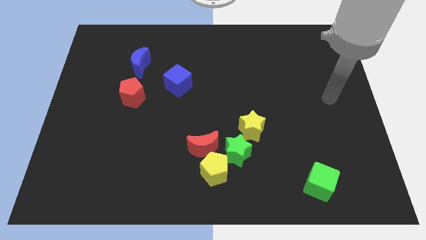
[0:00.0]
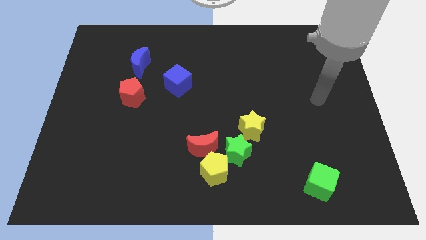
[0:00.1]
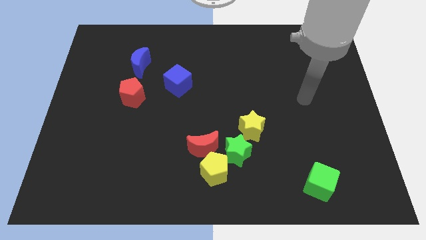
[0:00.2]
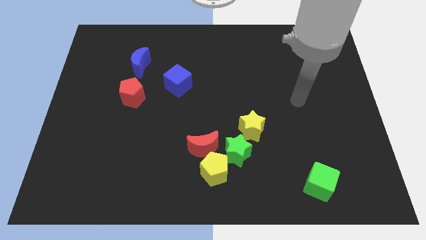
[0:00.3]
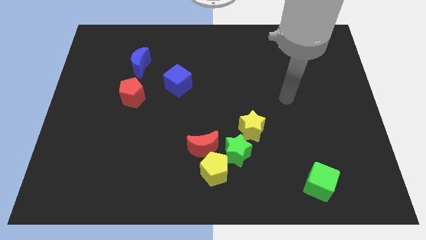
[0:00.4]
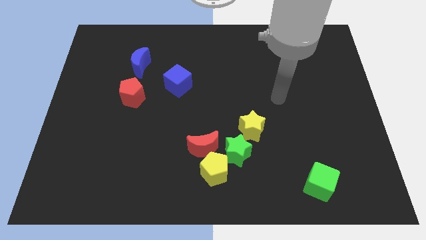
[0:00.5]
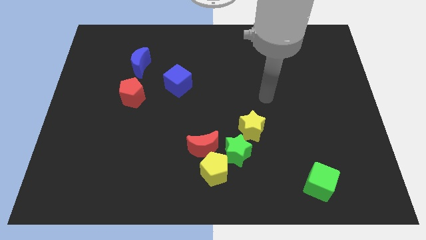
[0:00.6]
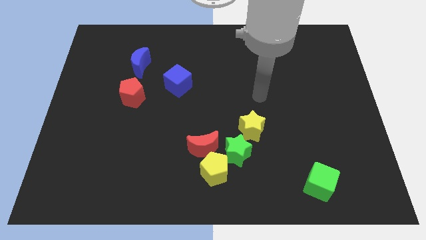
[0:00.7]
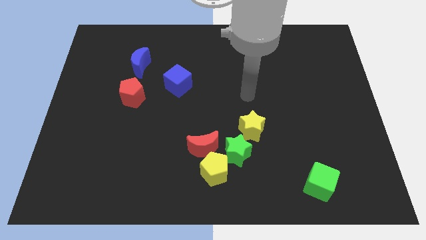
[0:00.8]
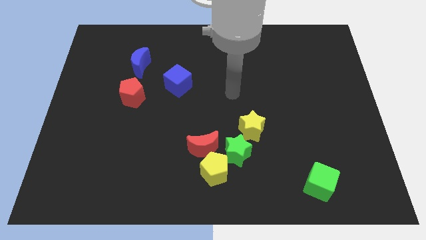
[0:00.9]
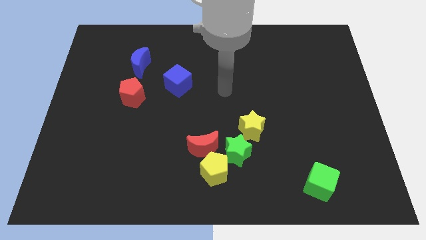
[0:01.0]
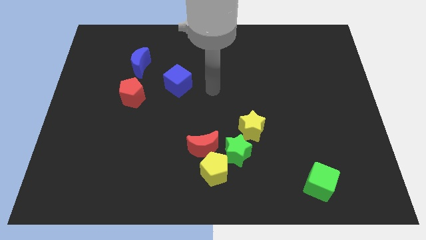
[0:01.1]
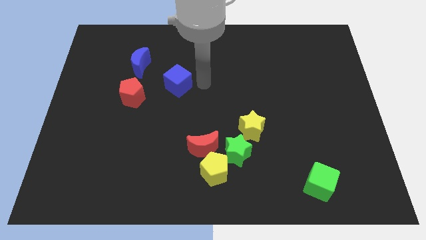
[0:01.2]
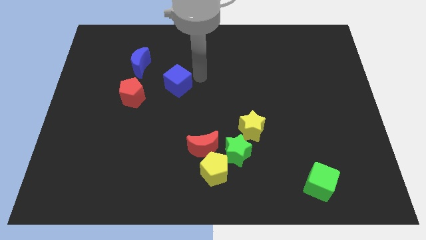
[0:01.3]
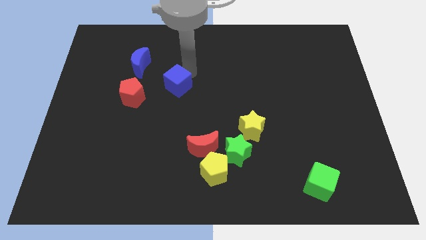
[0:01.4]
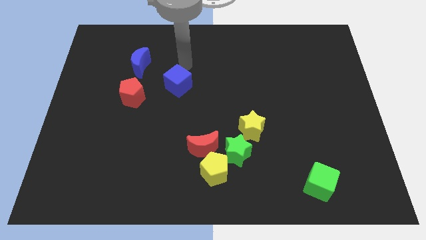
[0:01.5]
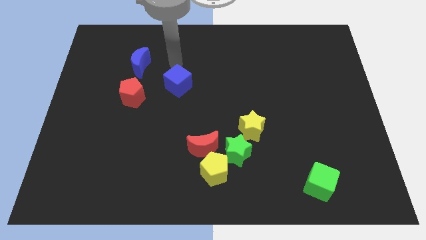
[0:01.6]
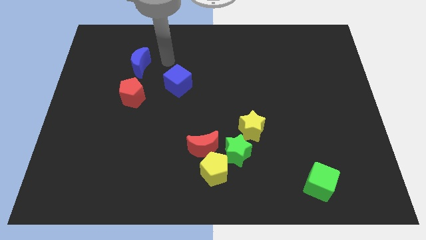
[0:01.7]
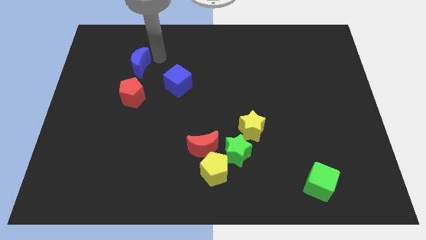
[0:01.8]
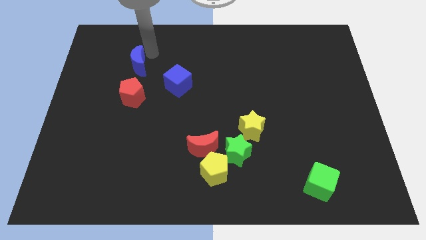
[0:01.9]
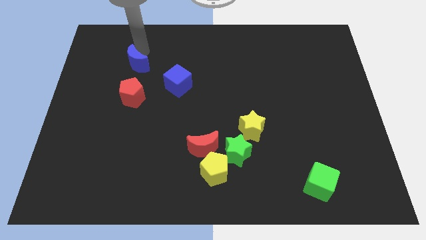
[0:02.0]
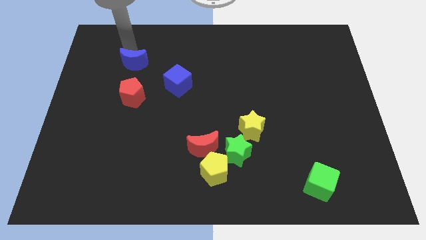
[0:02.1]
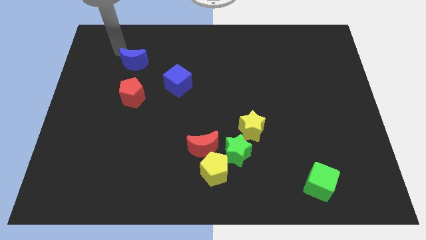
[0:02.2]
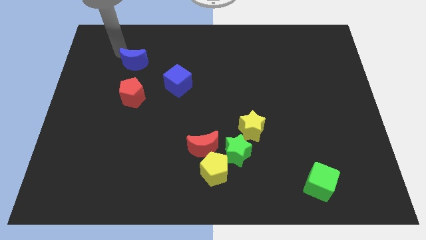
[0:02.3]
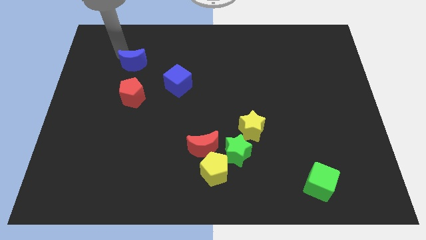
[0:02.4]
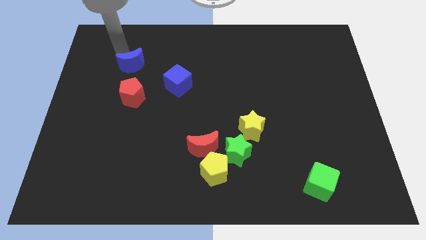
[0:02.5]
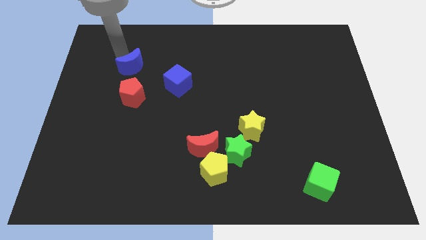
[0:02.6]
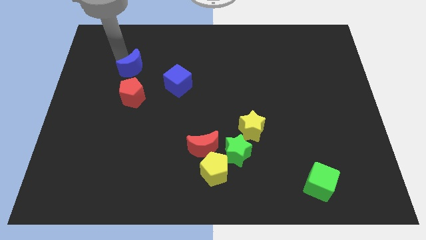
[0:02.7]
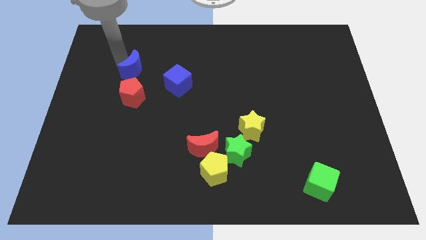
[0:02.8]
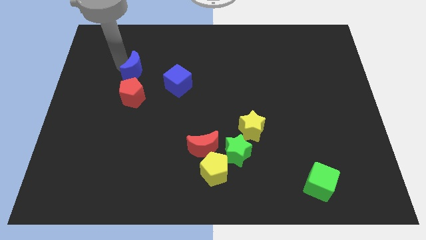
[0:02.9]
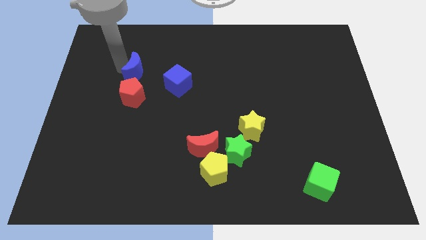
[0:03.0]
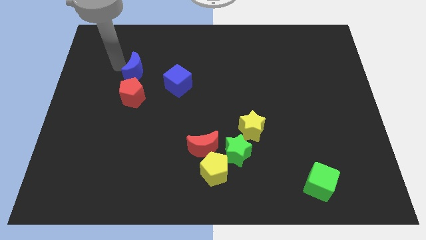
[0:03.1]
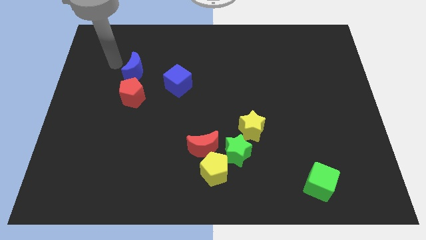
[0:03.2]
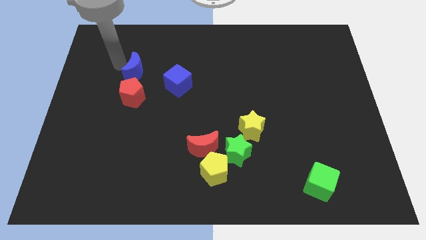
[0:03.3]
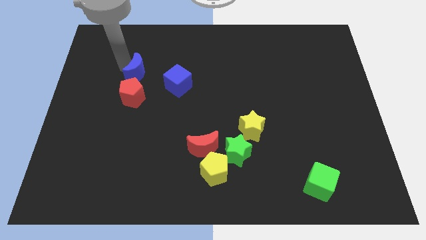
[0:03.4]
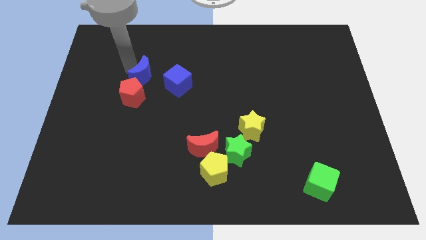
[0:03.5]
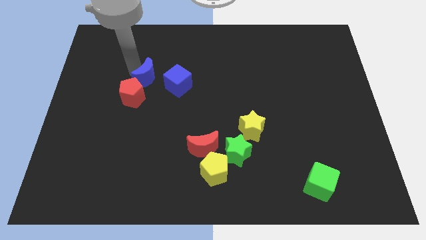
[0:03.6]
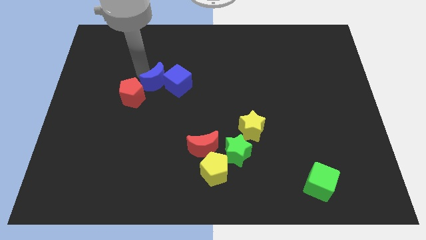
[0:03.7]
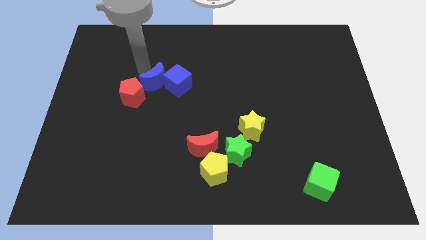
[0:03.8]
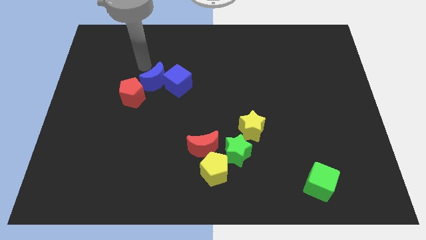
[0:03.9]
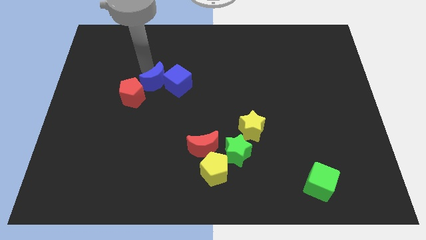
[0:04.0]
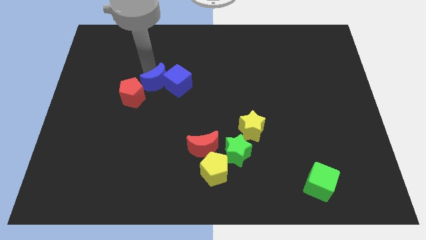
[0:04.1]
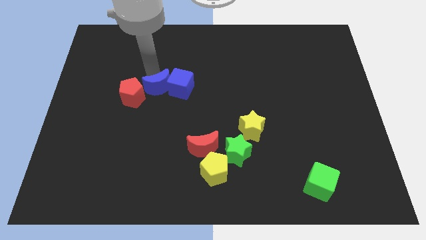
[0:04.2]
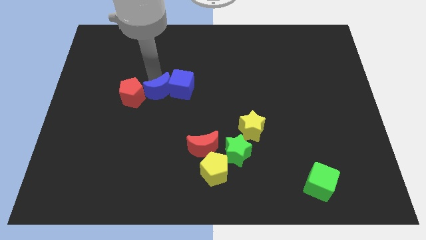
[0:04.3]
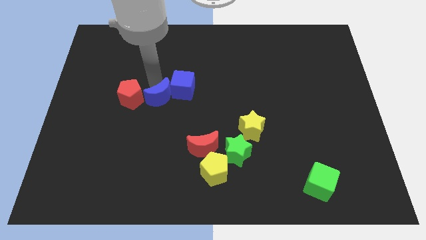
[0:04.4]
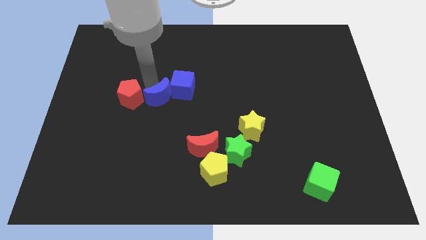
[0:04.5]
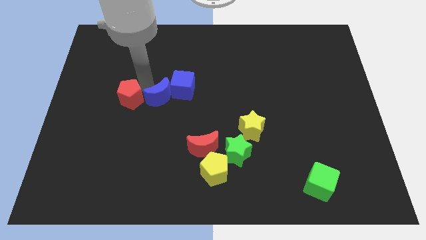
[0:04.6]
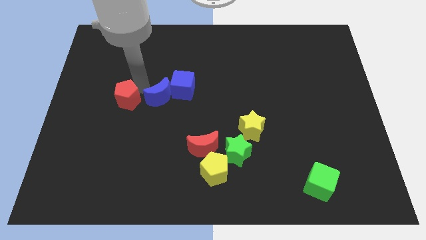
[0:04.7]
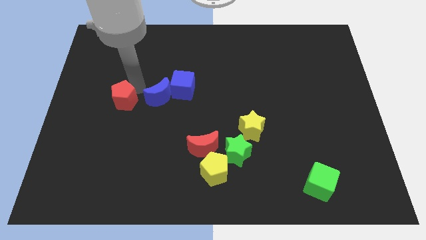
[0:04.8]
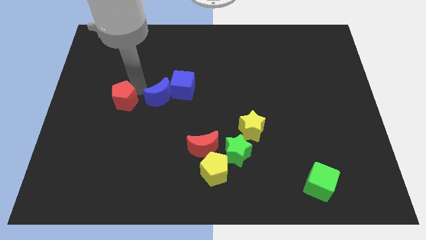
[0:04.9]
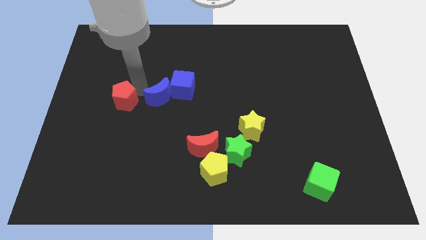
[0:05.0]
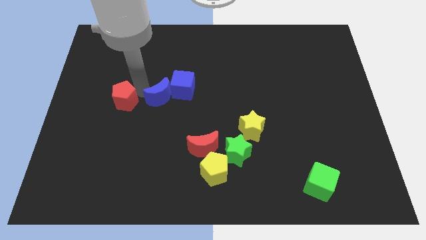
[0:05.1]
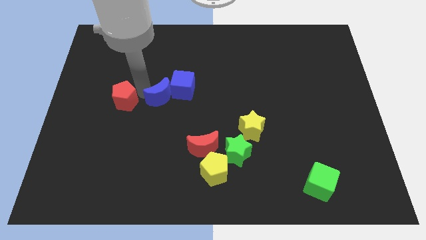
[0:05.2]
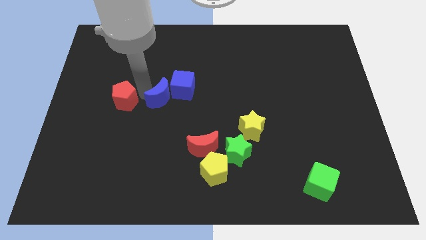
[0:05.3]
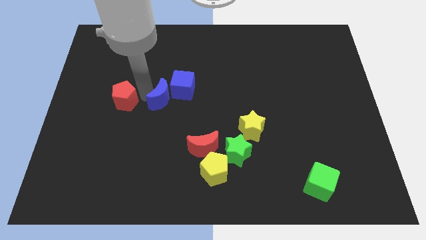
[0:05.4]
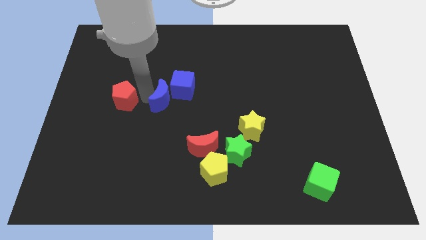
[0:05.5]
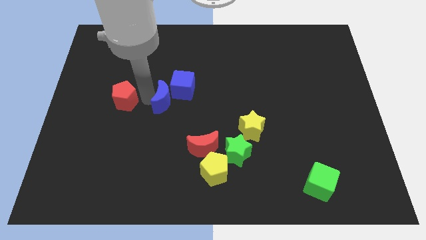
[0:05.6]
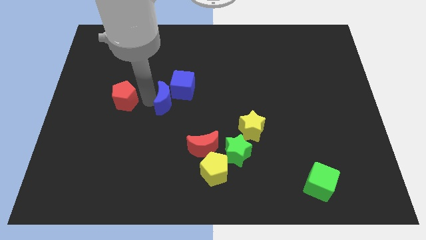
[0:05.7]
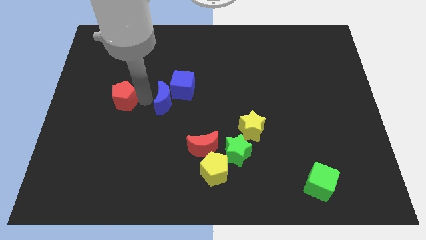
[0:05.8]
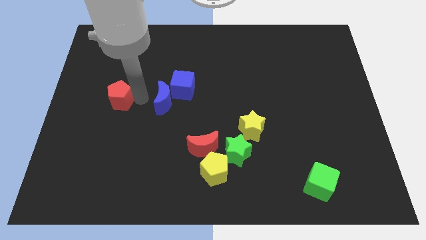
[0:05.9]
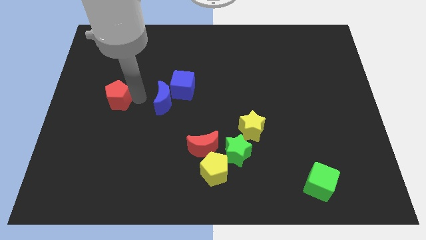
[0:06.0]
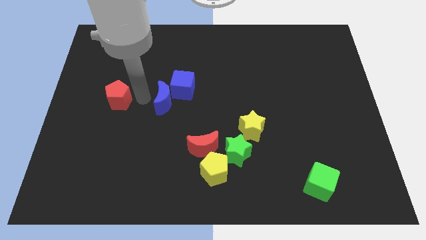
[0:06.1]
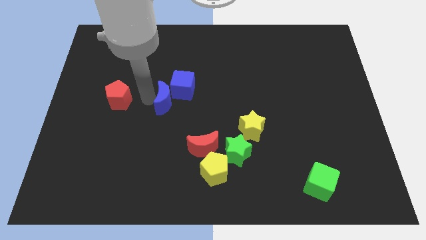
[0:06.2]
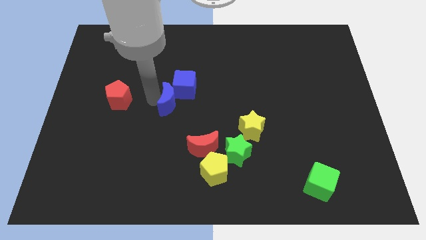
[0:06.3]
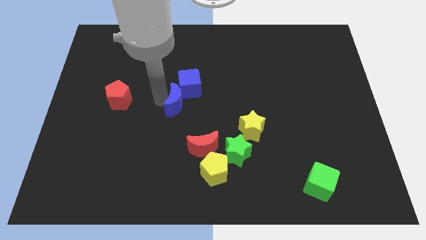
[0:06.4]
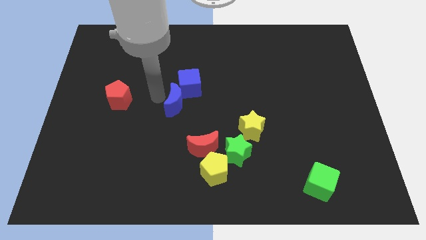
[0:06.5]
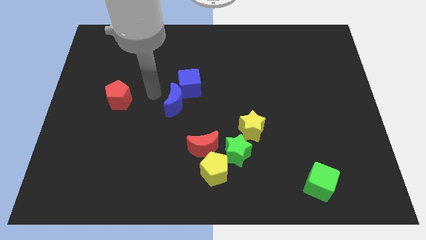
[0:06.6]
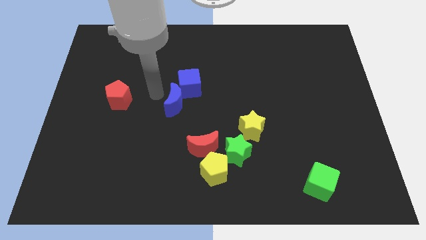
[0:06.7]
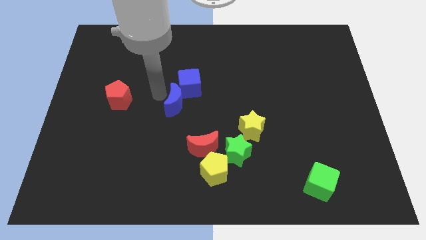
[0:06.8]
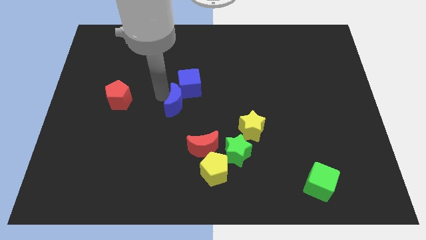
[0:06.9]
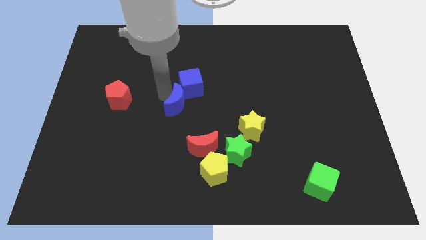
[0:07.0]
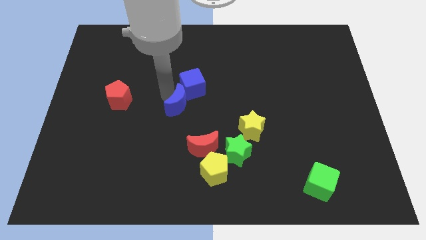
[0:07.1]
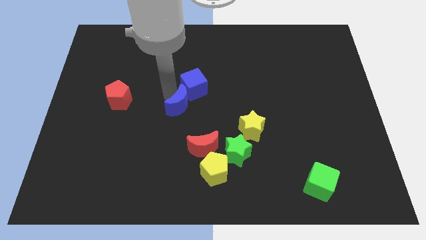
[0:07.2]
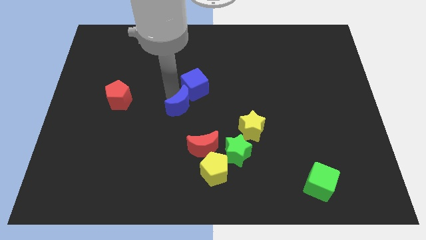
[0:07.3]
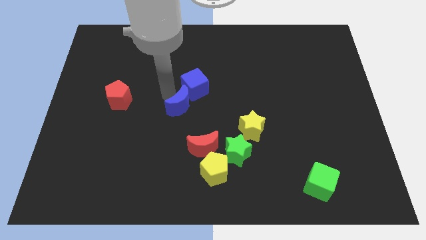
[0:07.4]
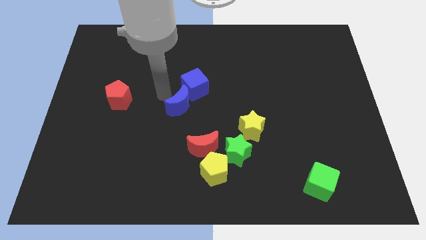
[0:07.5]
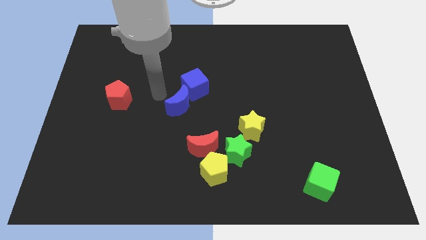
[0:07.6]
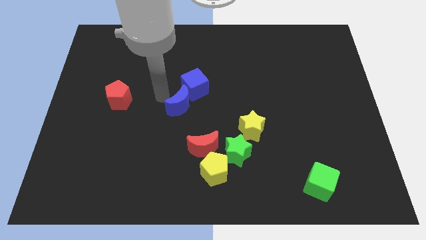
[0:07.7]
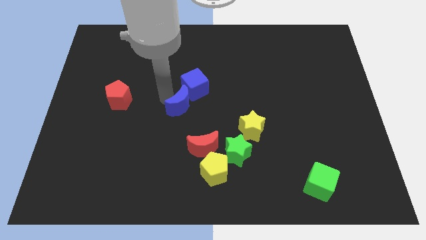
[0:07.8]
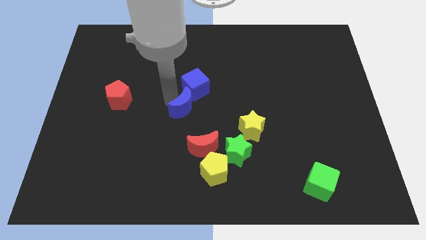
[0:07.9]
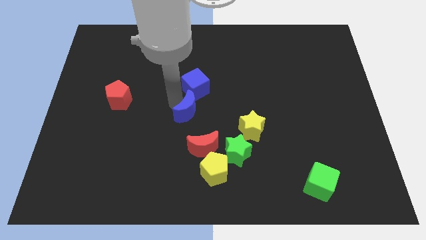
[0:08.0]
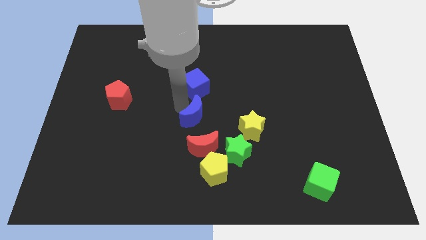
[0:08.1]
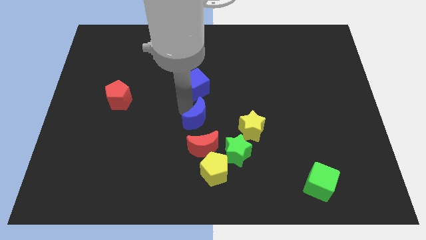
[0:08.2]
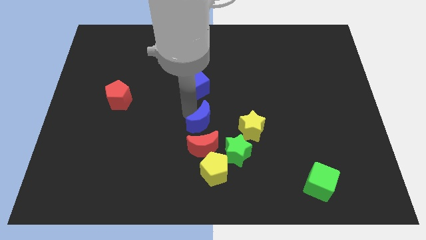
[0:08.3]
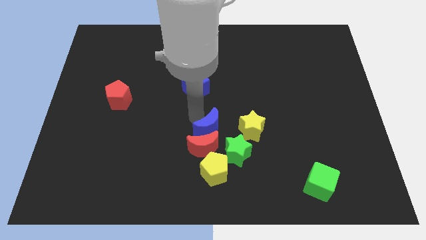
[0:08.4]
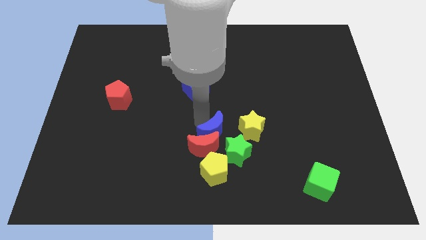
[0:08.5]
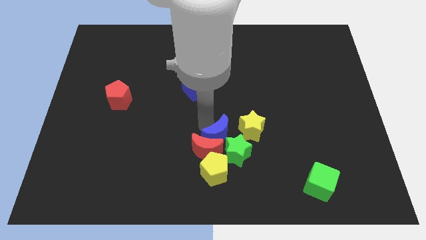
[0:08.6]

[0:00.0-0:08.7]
push the blue moon towards the green star
